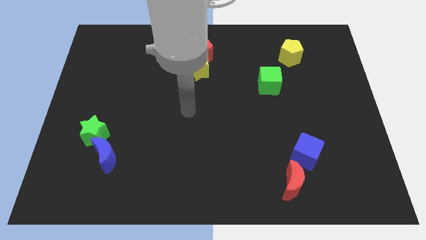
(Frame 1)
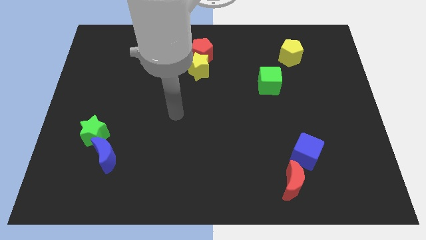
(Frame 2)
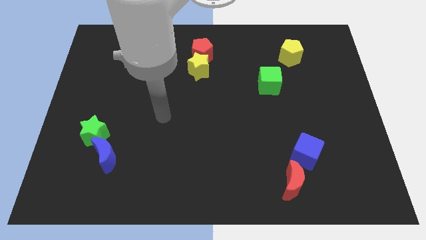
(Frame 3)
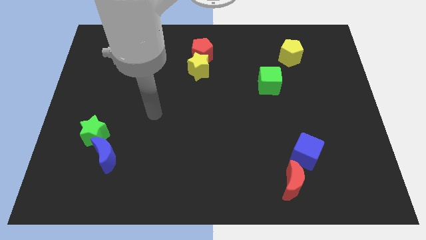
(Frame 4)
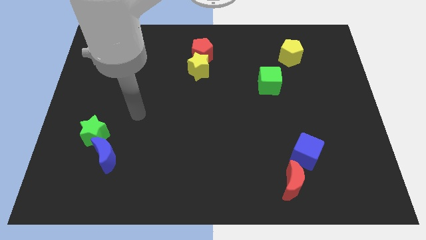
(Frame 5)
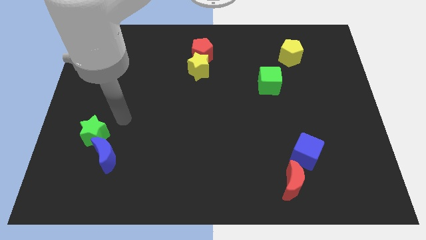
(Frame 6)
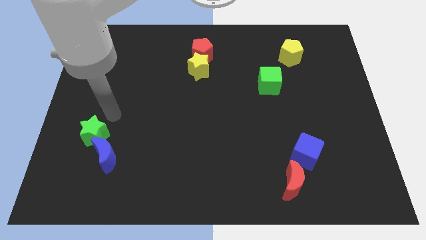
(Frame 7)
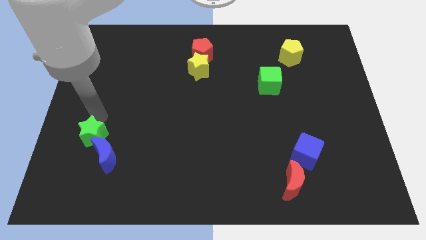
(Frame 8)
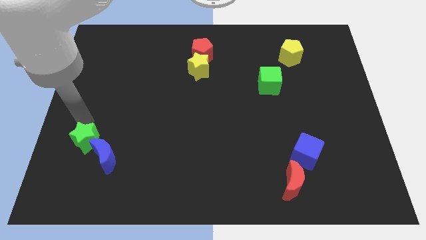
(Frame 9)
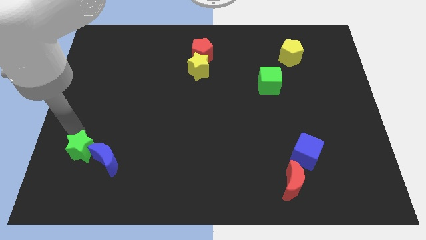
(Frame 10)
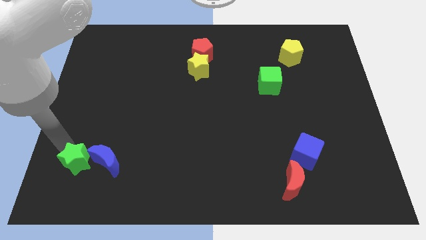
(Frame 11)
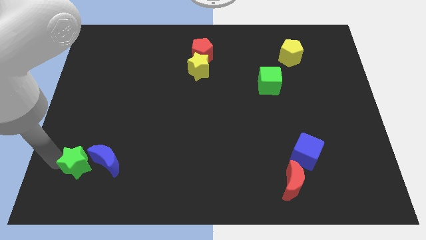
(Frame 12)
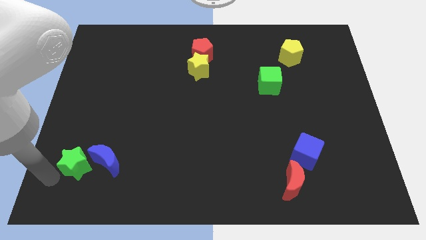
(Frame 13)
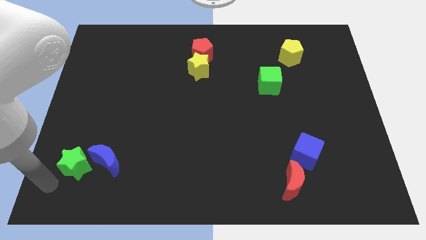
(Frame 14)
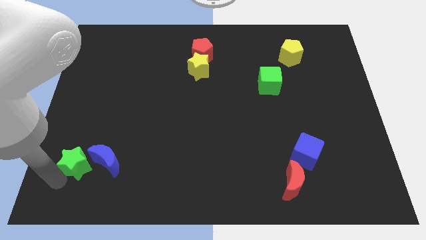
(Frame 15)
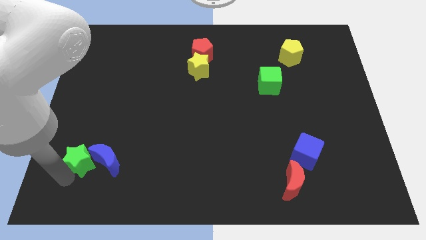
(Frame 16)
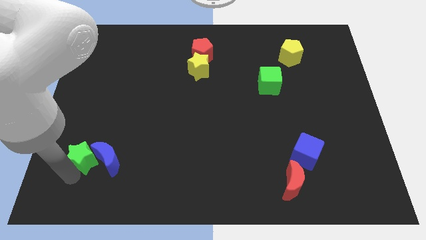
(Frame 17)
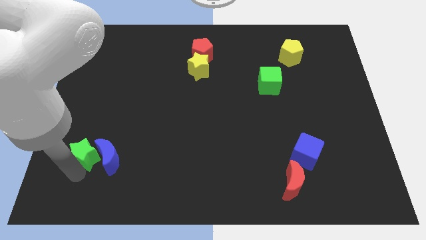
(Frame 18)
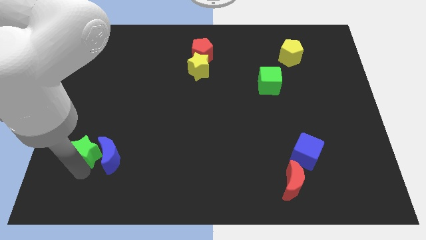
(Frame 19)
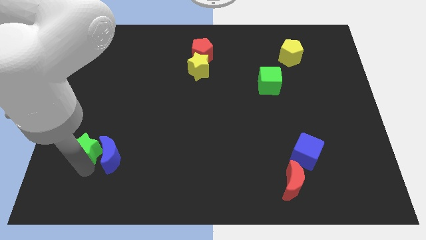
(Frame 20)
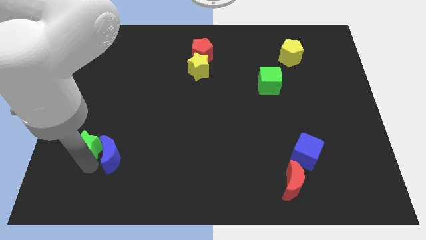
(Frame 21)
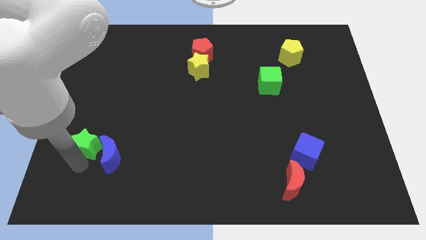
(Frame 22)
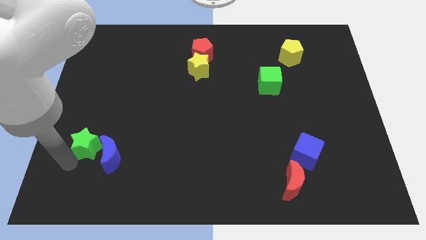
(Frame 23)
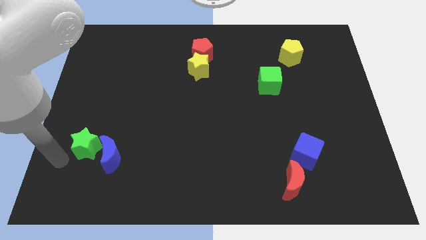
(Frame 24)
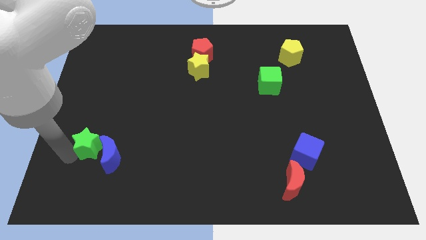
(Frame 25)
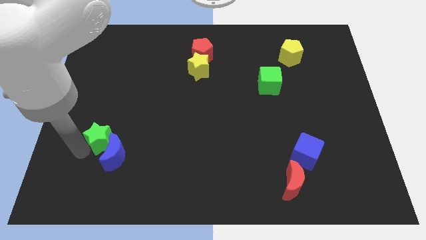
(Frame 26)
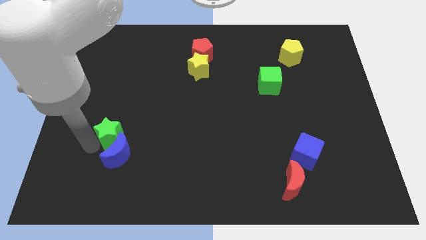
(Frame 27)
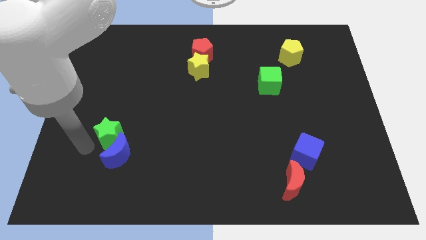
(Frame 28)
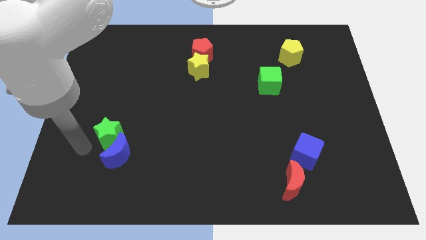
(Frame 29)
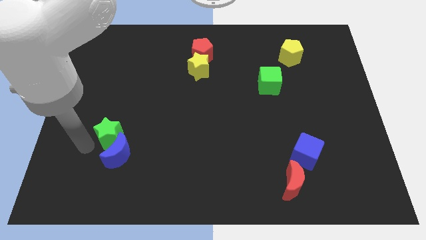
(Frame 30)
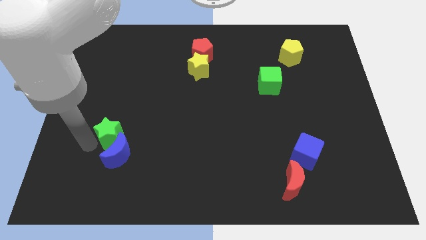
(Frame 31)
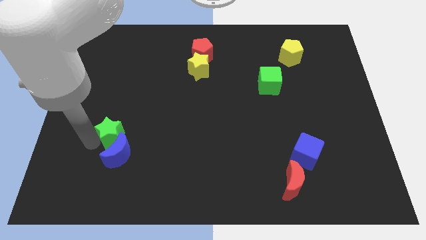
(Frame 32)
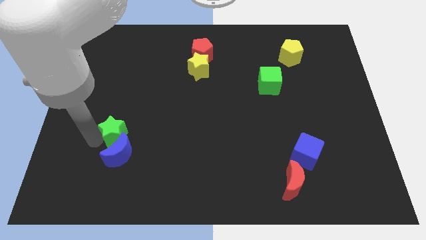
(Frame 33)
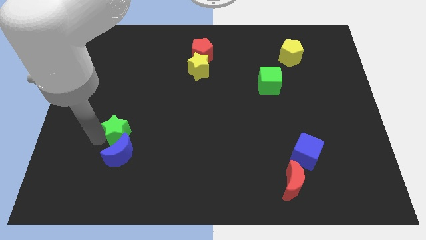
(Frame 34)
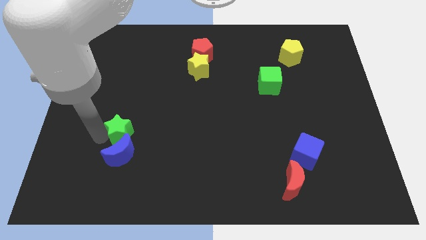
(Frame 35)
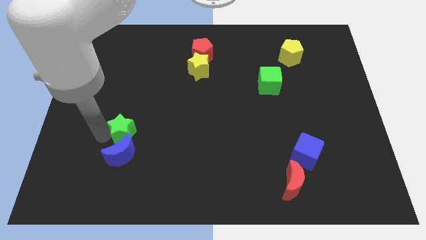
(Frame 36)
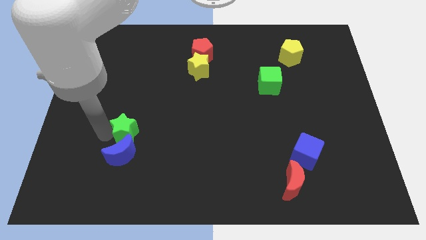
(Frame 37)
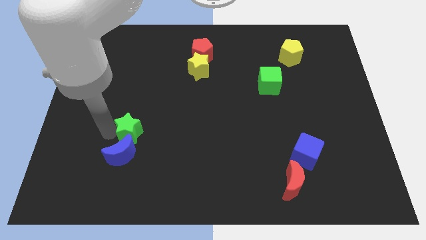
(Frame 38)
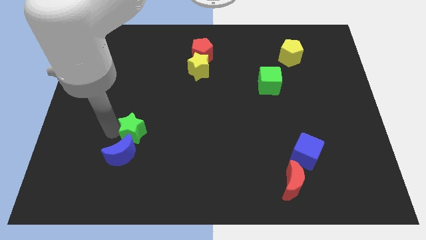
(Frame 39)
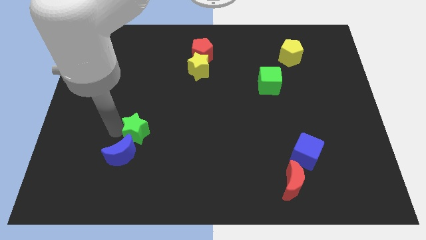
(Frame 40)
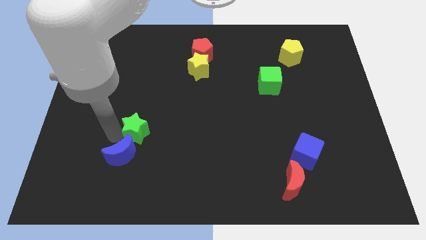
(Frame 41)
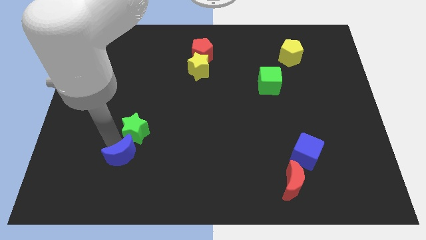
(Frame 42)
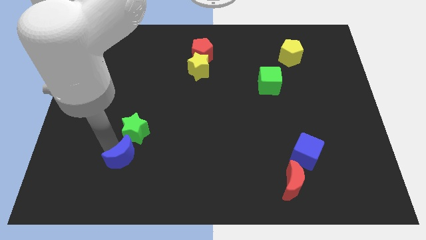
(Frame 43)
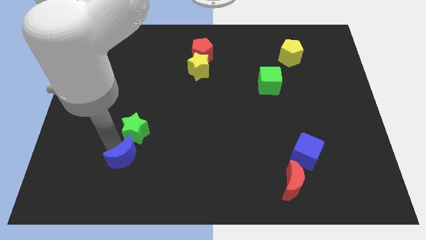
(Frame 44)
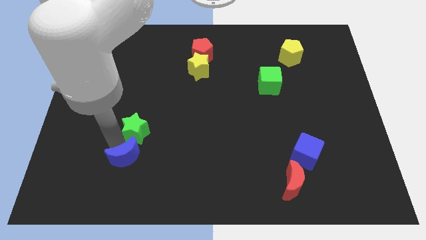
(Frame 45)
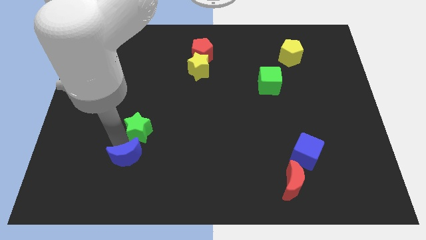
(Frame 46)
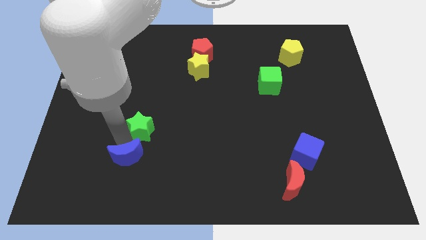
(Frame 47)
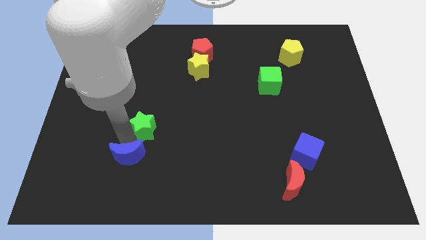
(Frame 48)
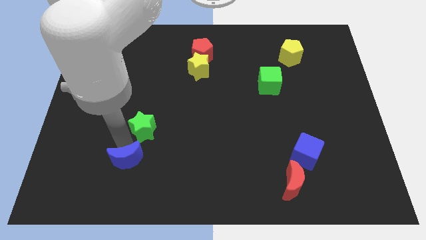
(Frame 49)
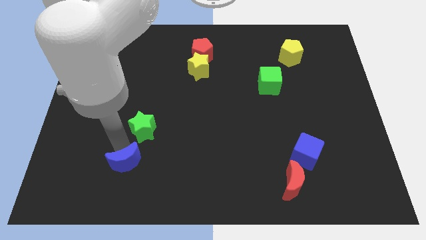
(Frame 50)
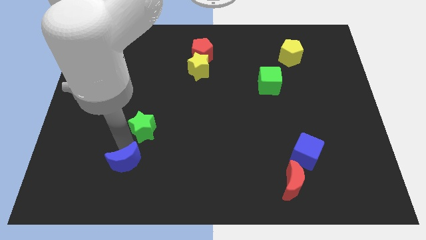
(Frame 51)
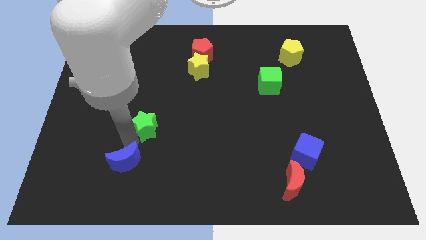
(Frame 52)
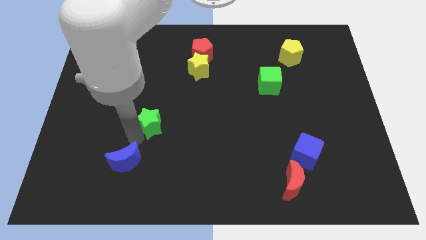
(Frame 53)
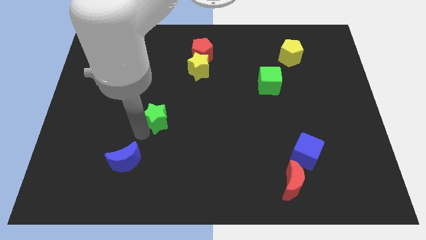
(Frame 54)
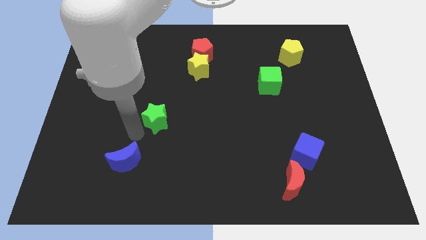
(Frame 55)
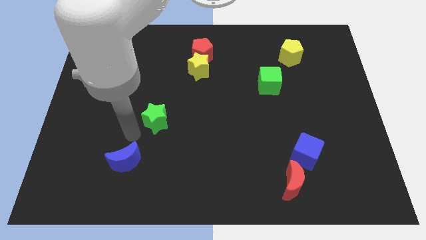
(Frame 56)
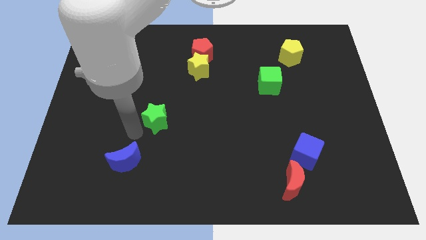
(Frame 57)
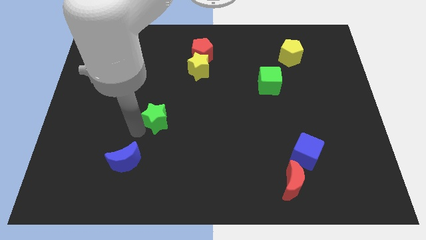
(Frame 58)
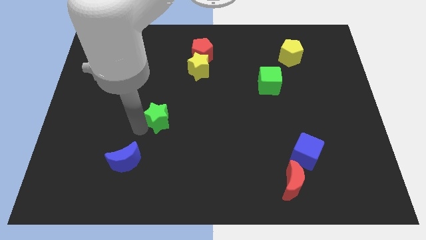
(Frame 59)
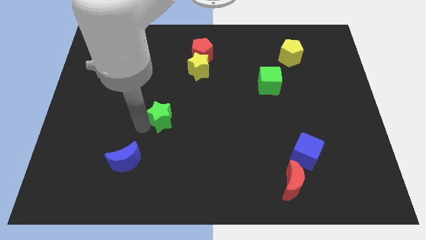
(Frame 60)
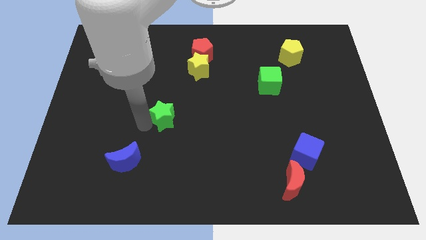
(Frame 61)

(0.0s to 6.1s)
move the green star to the center
